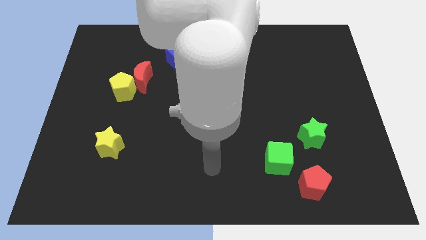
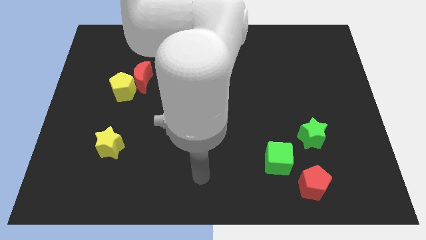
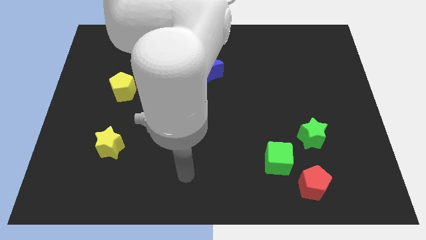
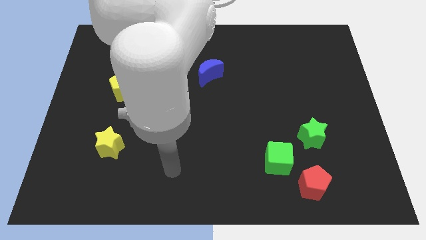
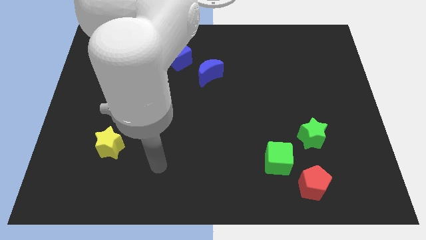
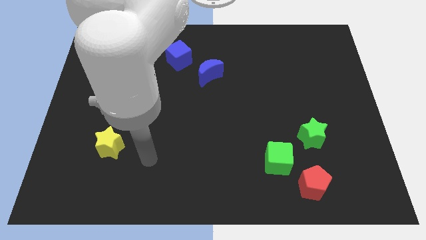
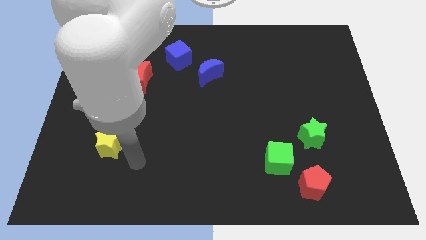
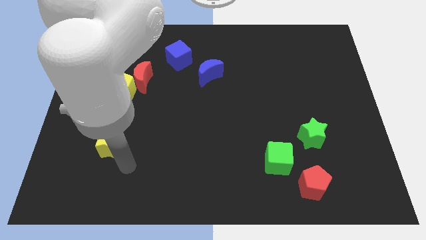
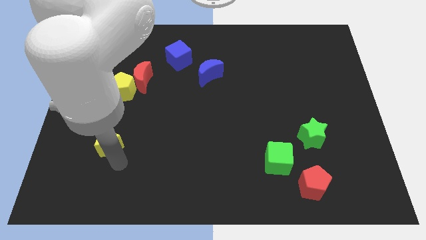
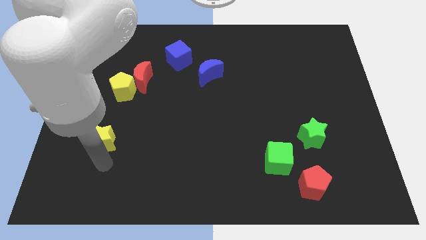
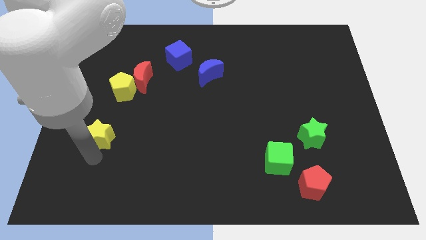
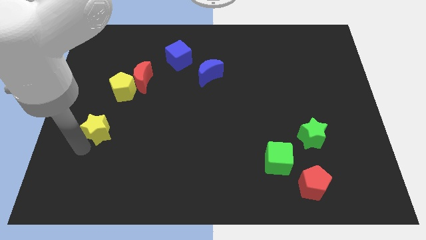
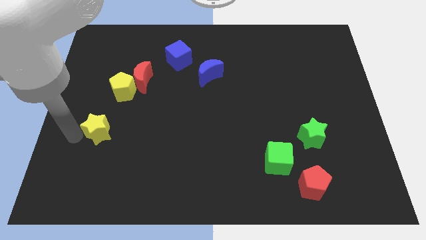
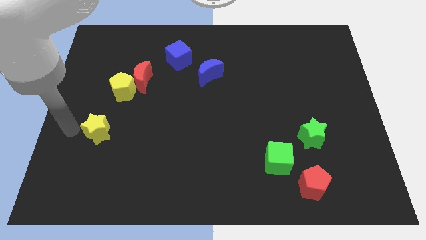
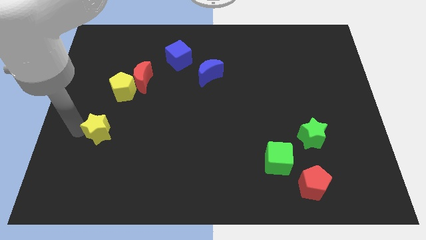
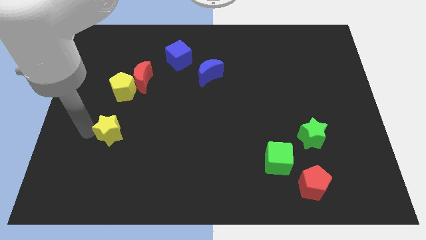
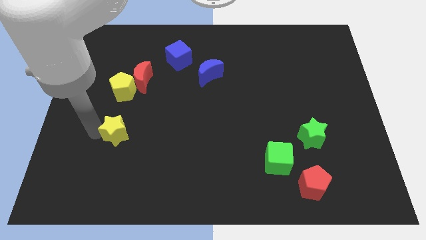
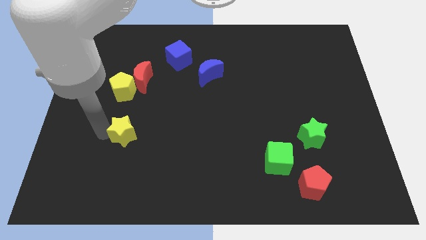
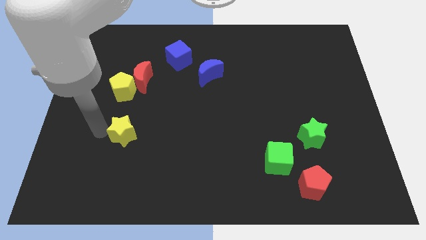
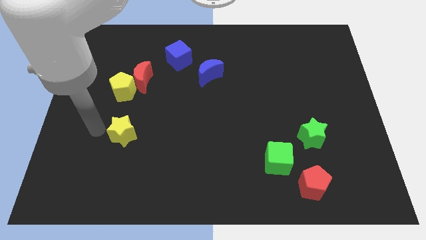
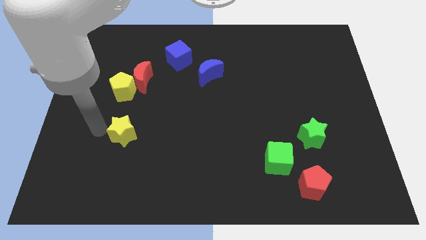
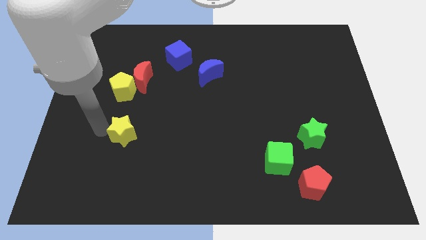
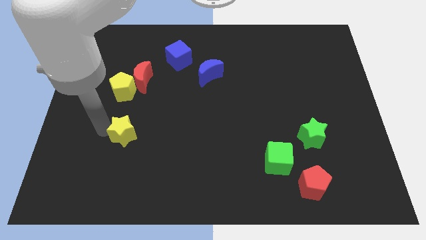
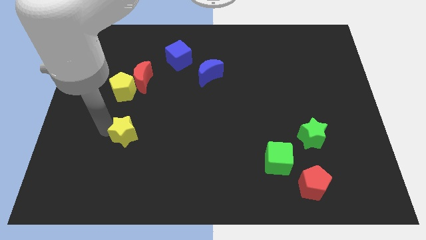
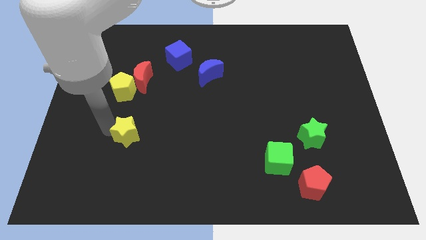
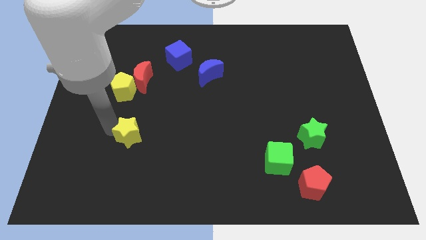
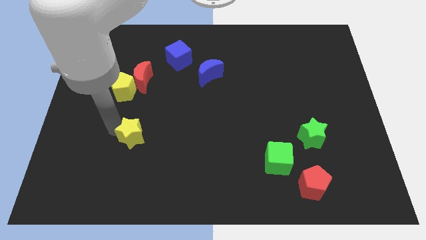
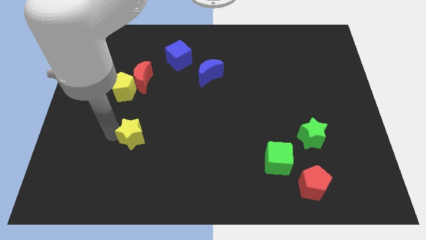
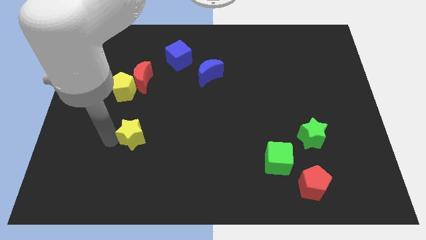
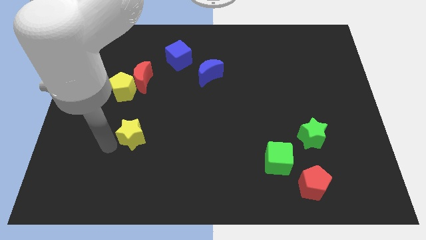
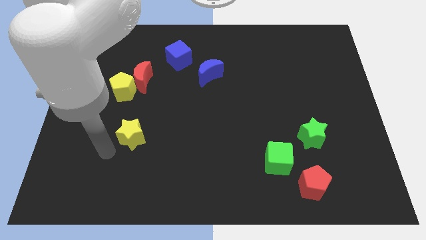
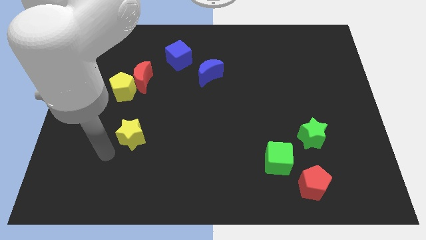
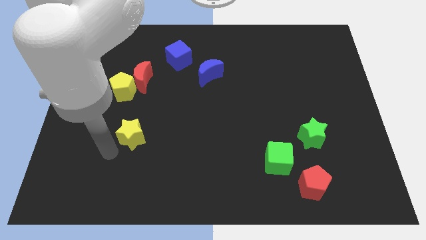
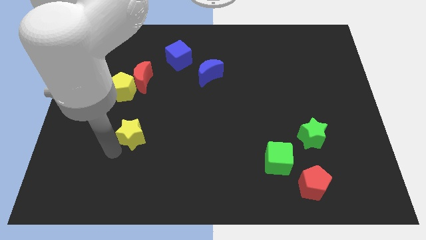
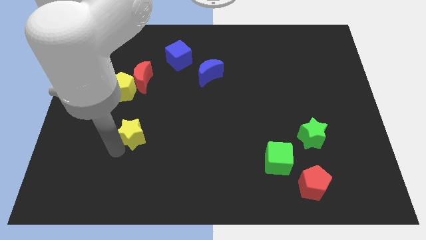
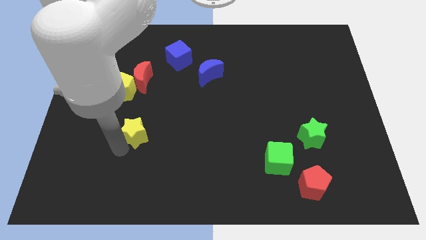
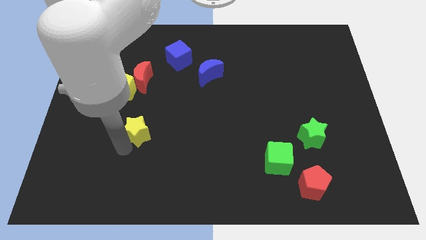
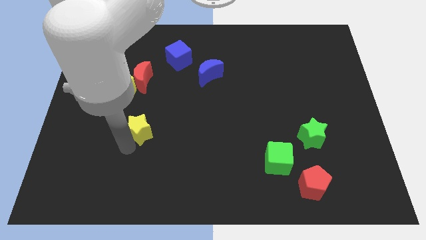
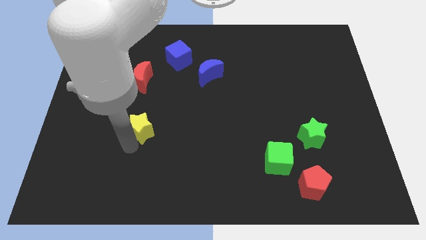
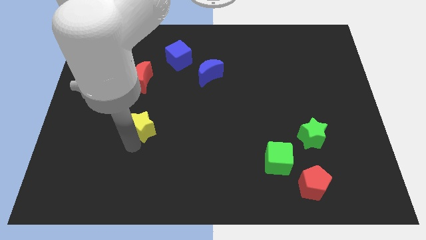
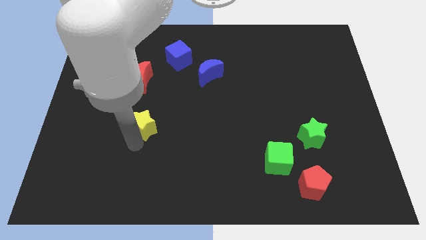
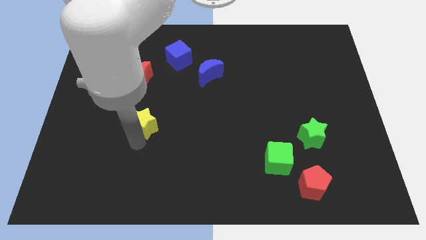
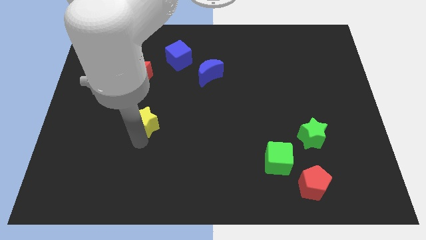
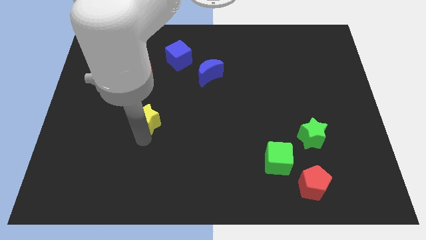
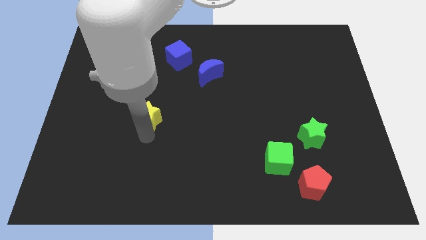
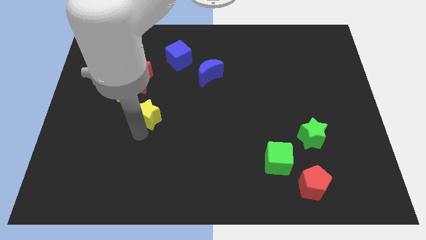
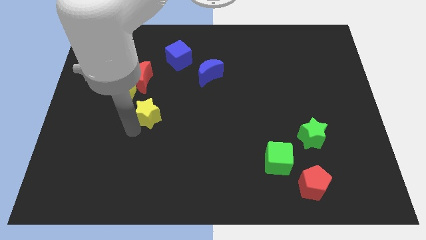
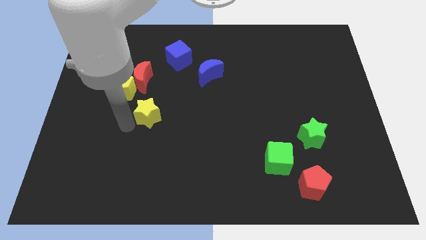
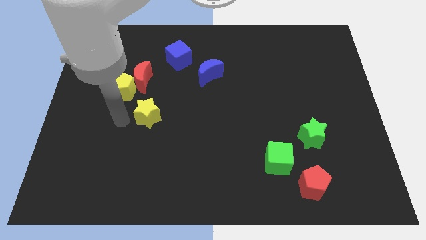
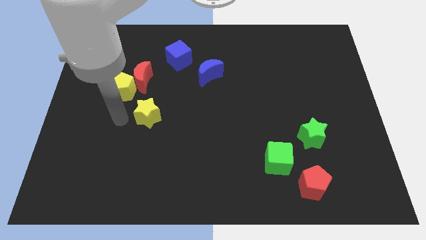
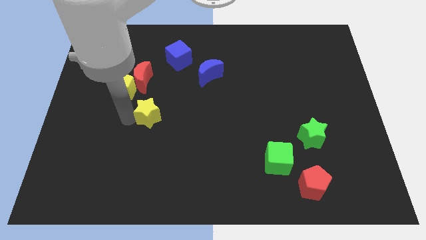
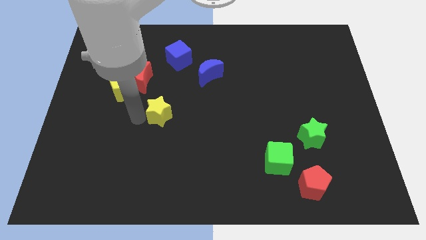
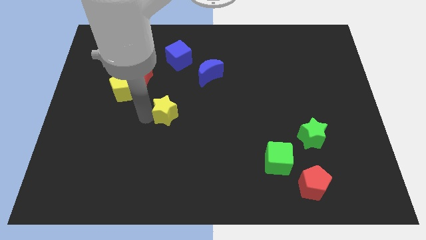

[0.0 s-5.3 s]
put the yellow star to the center of the board
